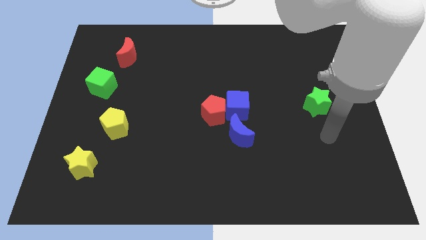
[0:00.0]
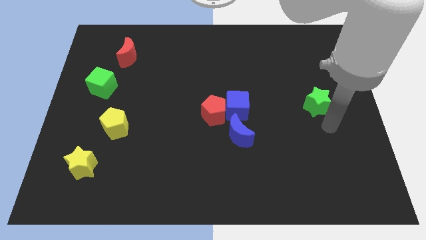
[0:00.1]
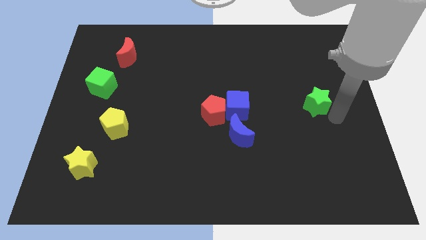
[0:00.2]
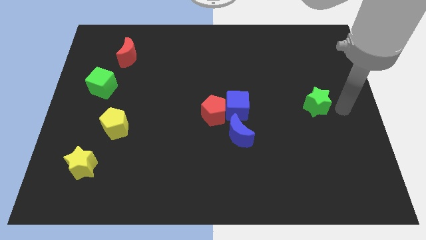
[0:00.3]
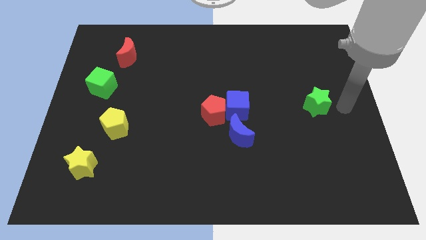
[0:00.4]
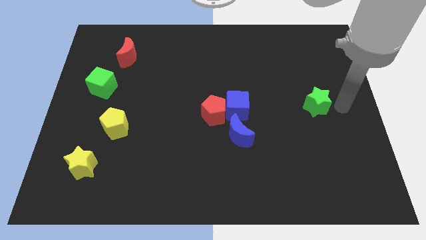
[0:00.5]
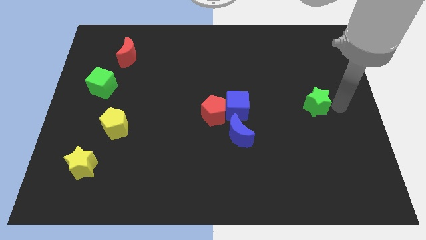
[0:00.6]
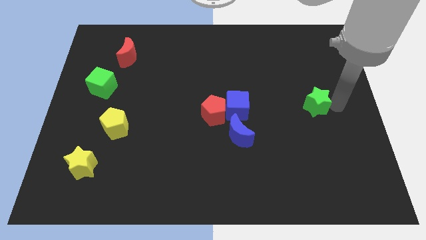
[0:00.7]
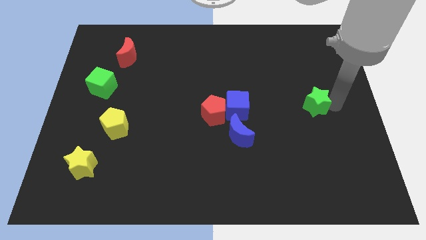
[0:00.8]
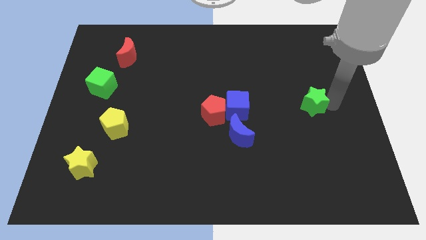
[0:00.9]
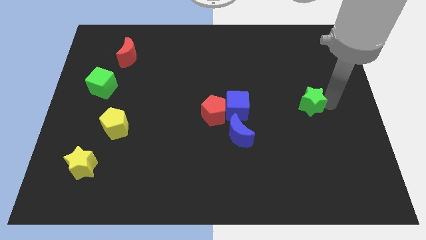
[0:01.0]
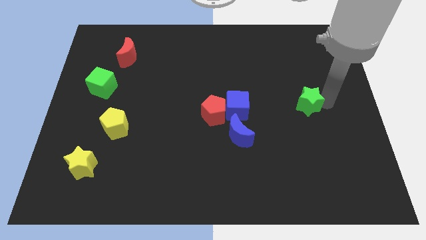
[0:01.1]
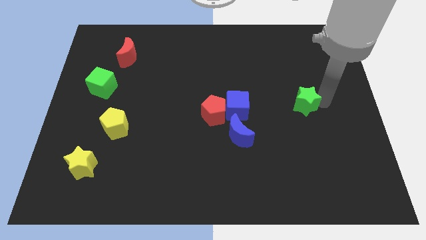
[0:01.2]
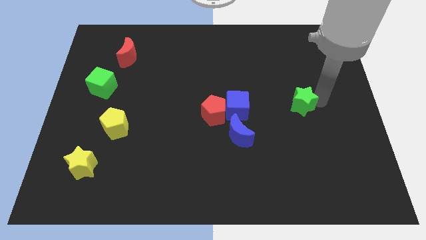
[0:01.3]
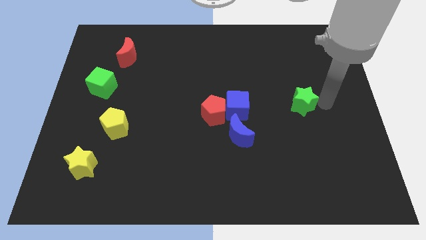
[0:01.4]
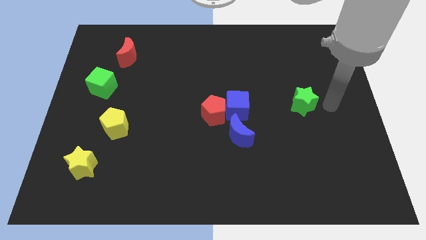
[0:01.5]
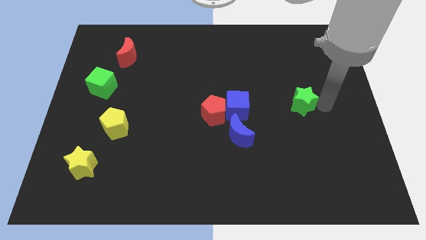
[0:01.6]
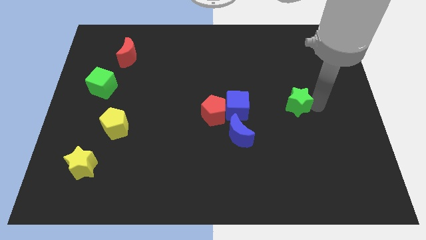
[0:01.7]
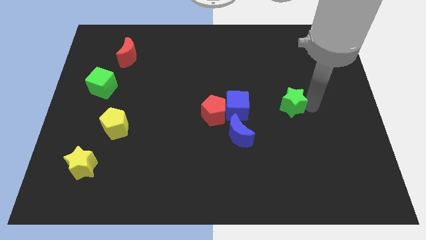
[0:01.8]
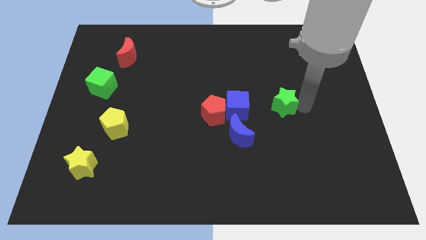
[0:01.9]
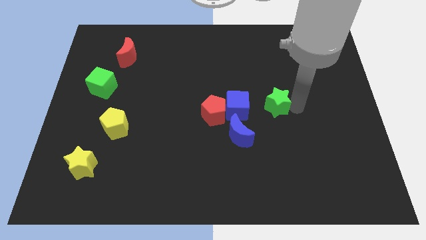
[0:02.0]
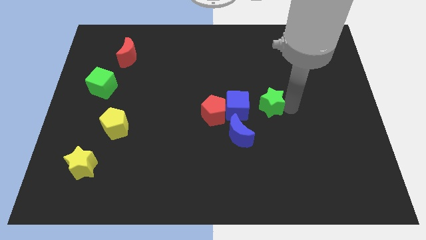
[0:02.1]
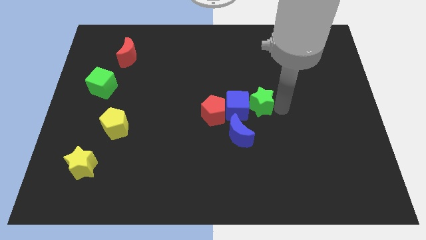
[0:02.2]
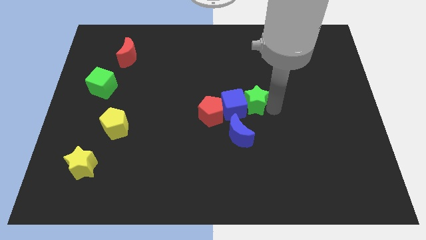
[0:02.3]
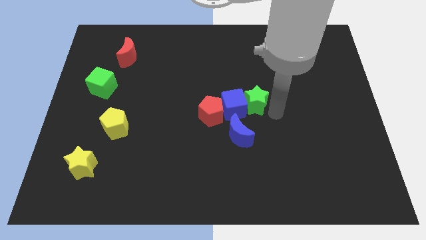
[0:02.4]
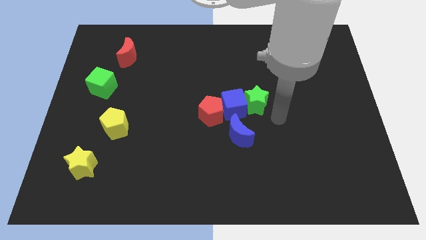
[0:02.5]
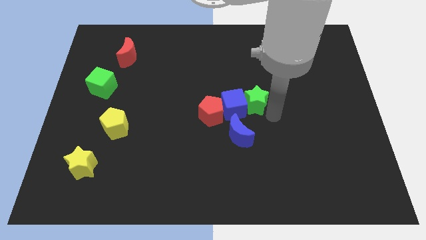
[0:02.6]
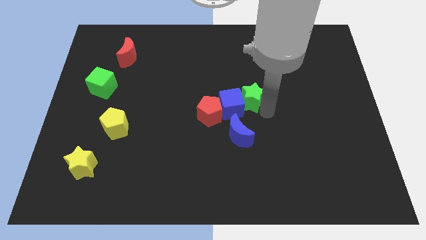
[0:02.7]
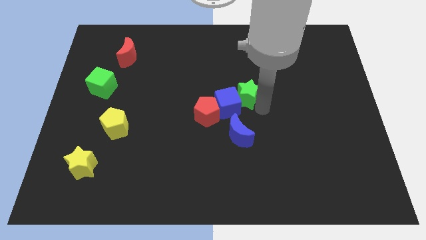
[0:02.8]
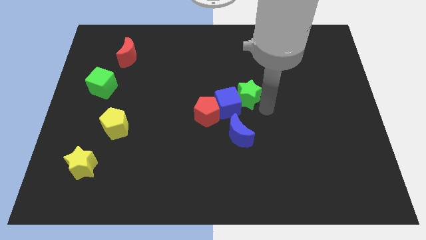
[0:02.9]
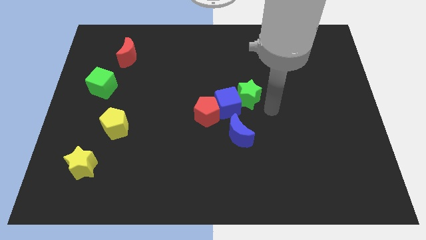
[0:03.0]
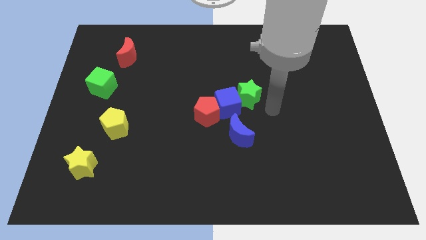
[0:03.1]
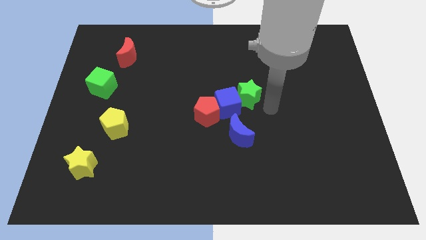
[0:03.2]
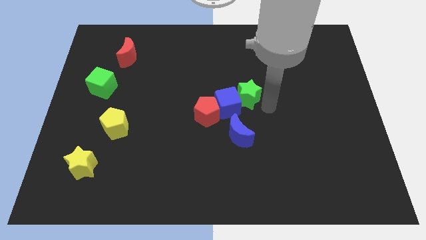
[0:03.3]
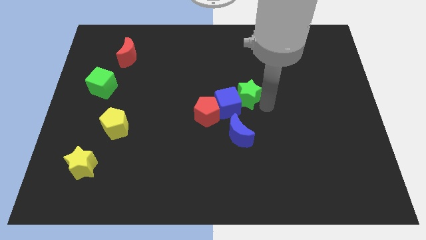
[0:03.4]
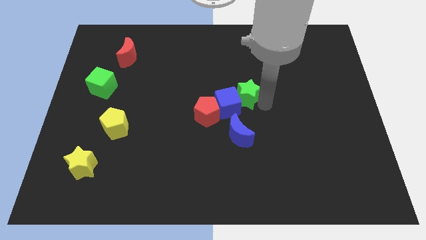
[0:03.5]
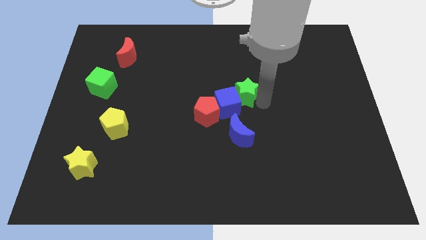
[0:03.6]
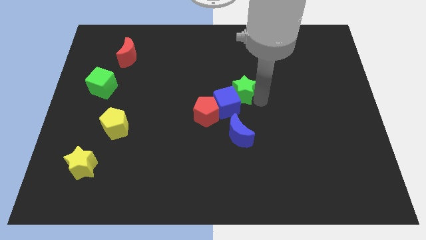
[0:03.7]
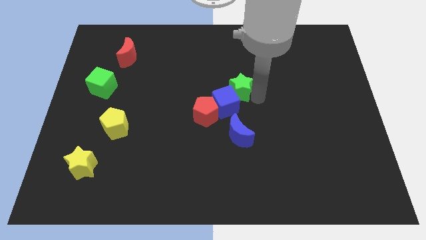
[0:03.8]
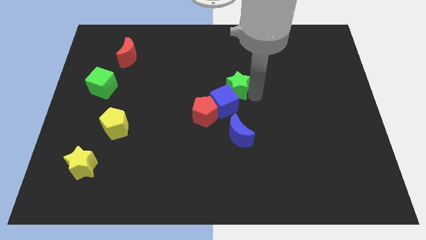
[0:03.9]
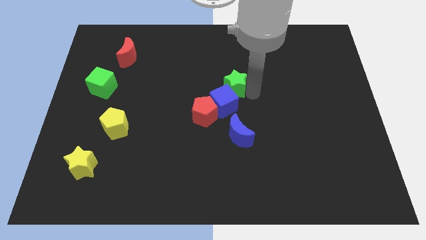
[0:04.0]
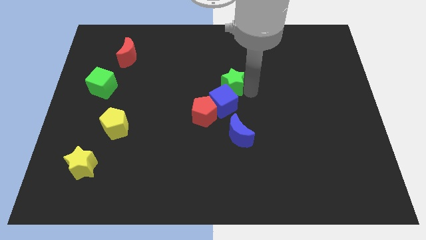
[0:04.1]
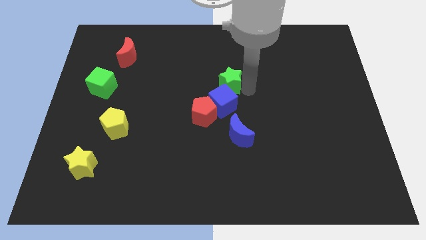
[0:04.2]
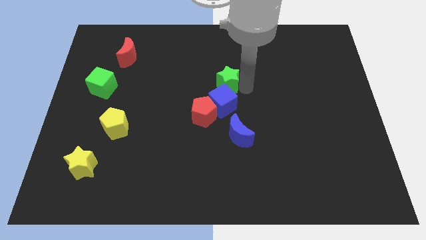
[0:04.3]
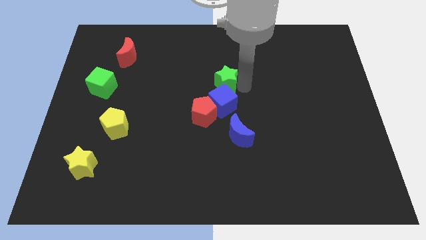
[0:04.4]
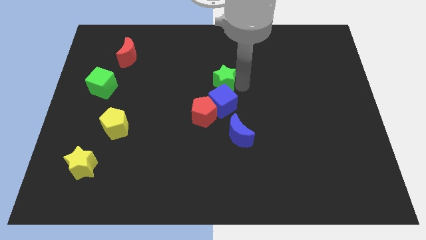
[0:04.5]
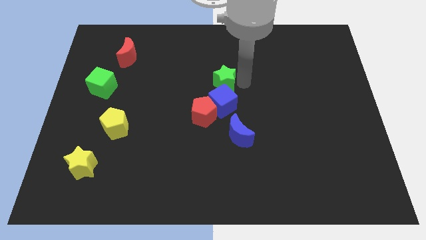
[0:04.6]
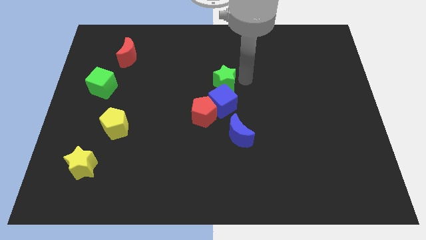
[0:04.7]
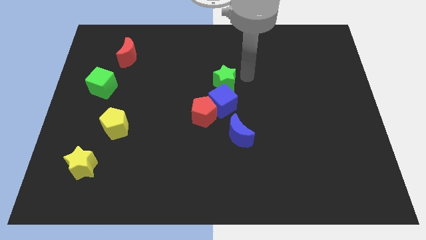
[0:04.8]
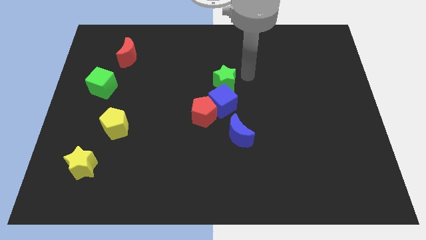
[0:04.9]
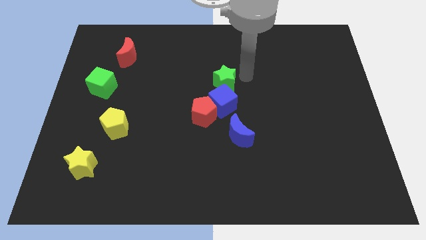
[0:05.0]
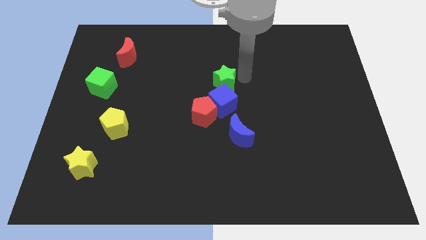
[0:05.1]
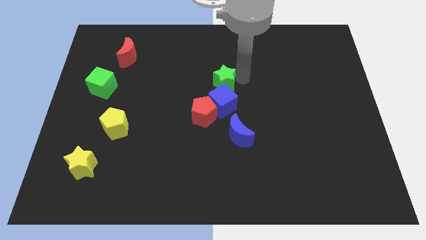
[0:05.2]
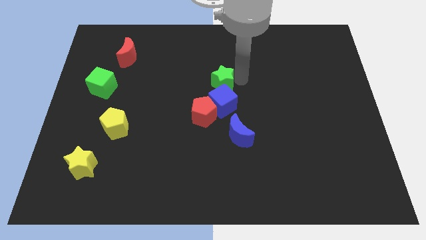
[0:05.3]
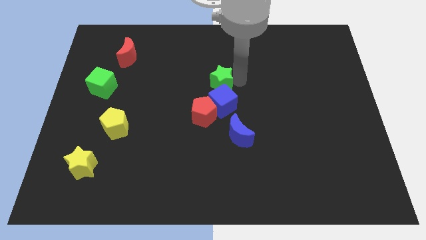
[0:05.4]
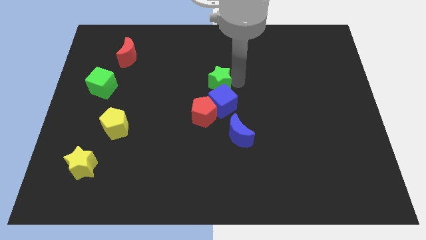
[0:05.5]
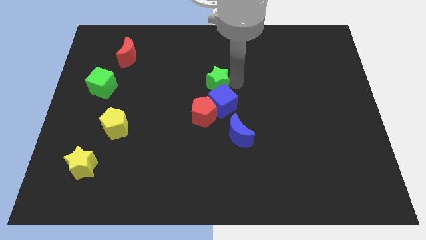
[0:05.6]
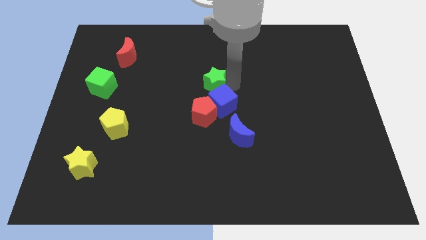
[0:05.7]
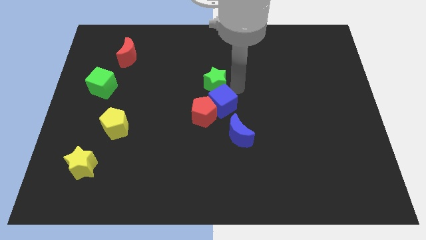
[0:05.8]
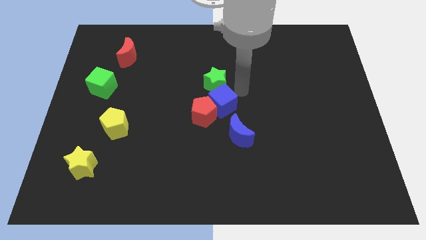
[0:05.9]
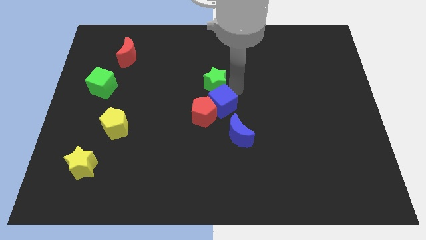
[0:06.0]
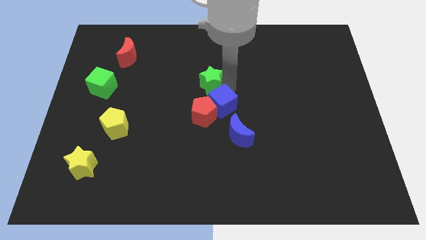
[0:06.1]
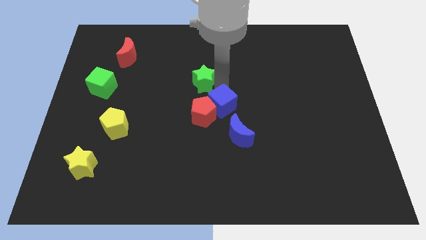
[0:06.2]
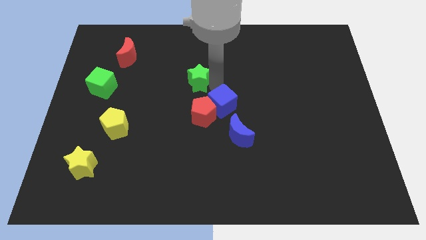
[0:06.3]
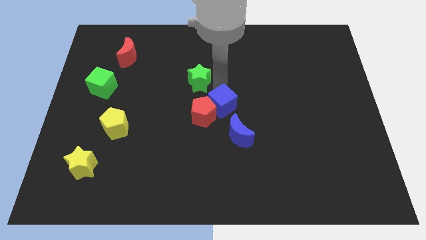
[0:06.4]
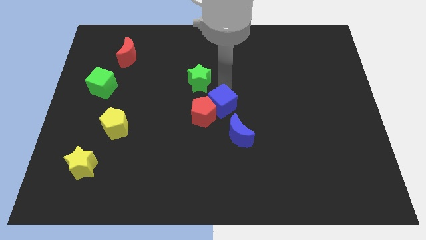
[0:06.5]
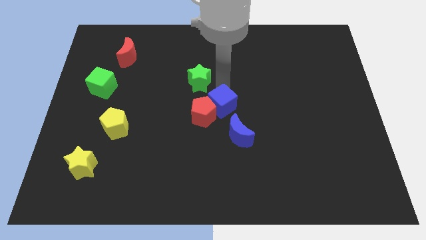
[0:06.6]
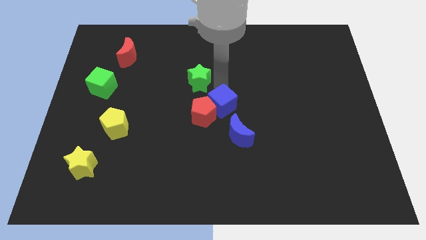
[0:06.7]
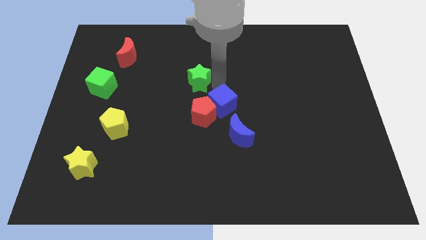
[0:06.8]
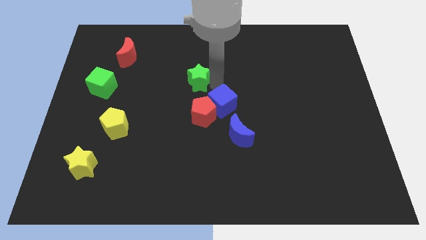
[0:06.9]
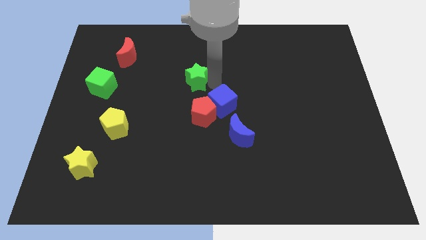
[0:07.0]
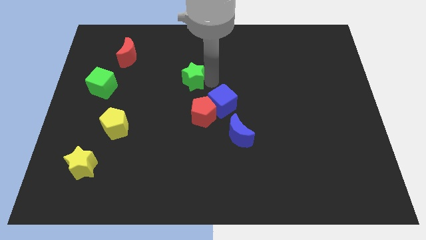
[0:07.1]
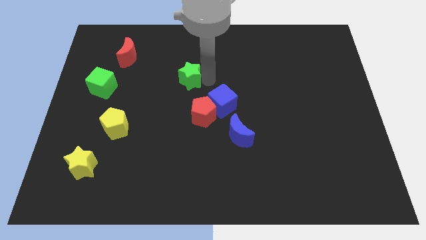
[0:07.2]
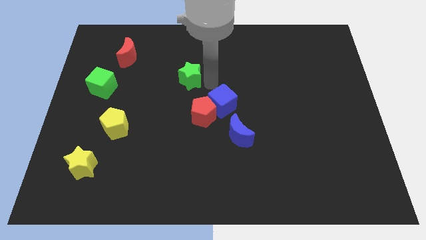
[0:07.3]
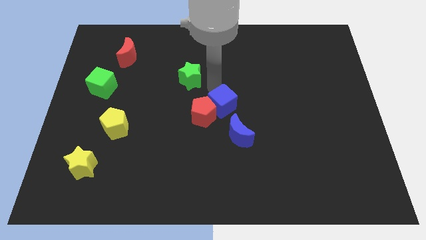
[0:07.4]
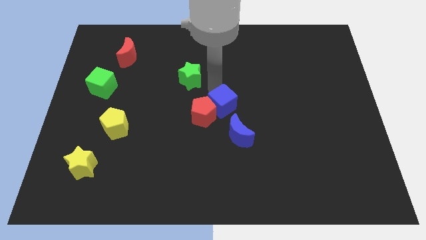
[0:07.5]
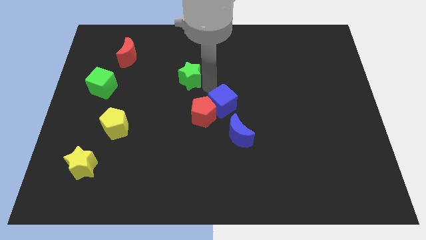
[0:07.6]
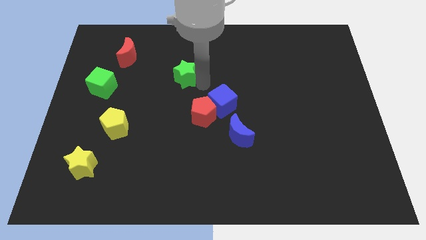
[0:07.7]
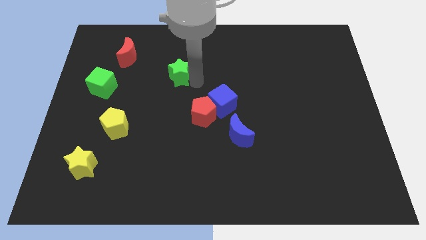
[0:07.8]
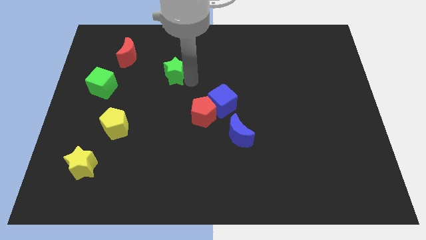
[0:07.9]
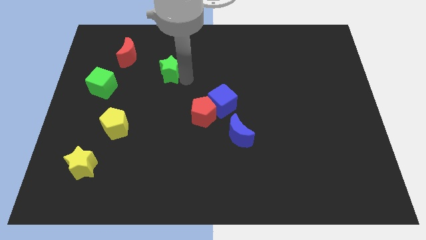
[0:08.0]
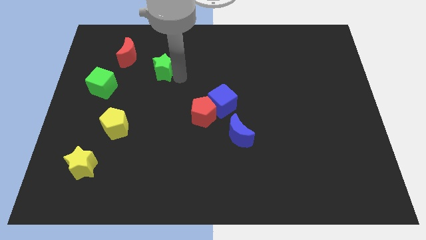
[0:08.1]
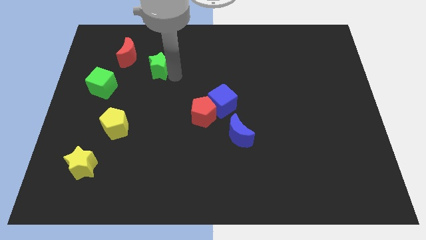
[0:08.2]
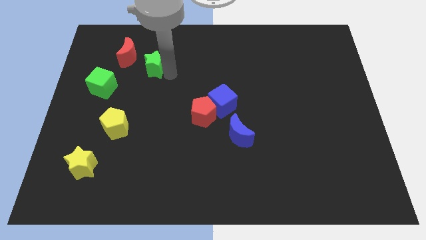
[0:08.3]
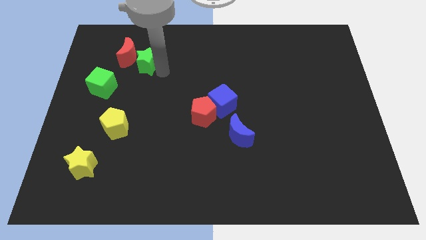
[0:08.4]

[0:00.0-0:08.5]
push the green star towards the red moon
